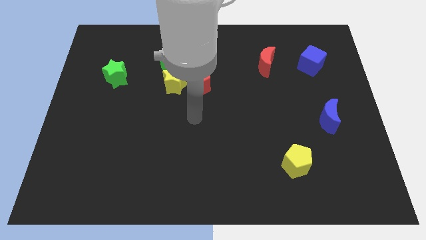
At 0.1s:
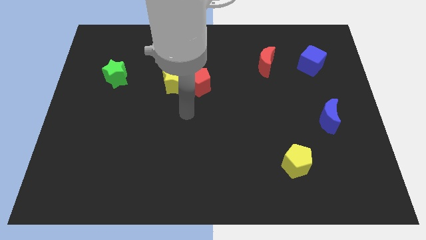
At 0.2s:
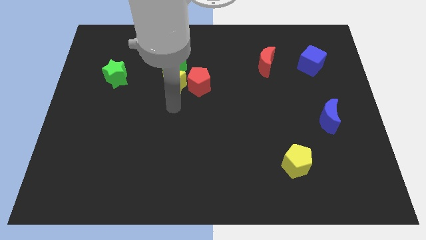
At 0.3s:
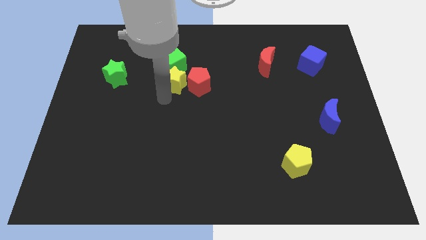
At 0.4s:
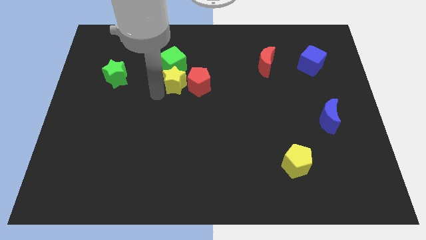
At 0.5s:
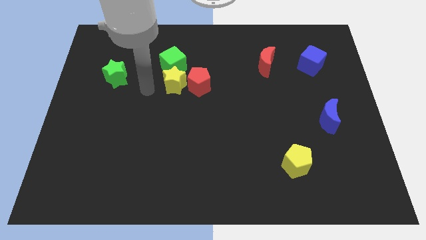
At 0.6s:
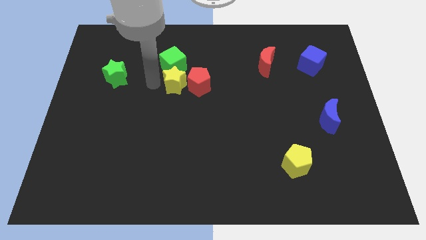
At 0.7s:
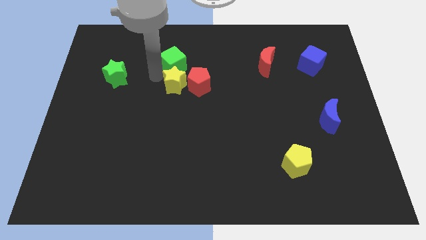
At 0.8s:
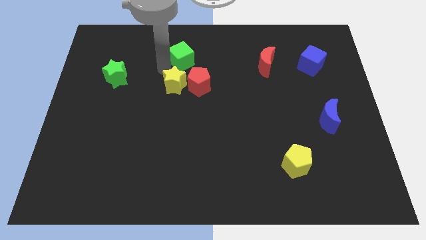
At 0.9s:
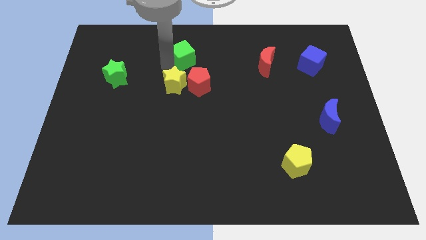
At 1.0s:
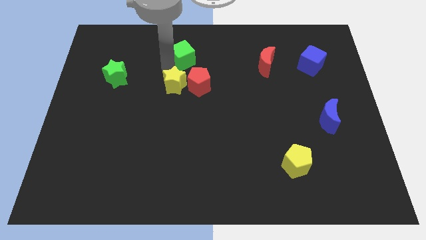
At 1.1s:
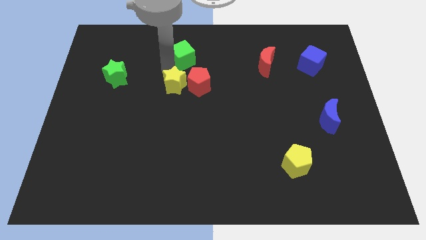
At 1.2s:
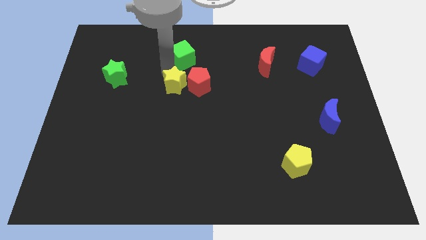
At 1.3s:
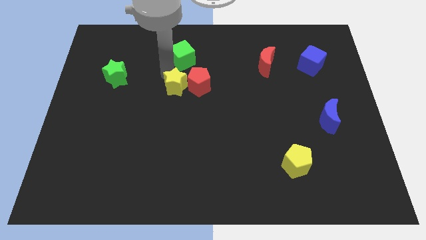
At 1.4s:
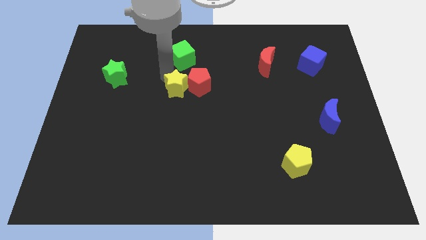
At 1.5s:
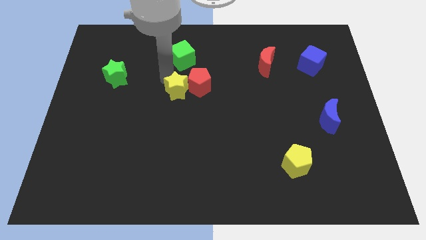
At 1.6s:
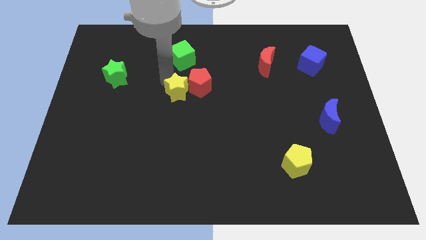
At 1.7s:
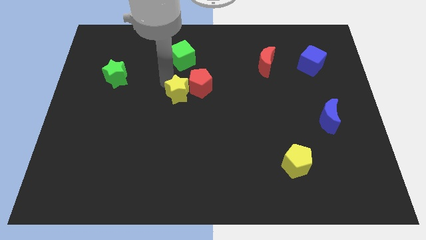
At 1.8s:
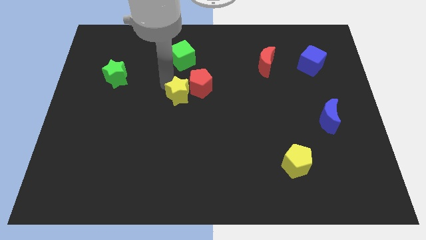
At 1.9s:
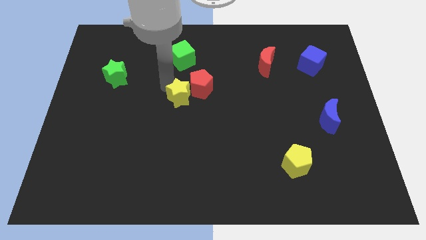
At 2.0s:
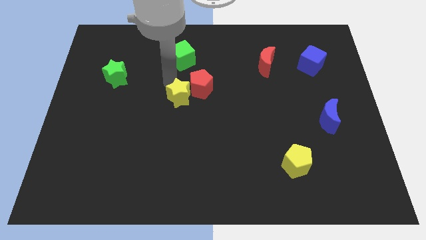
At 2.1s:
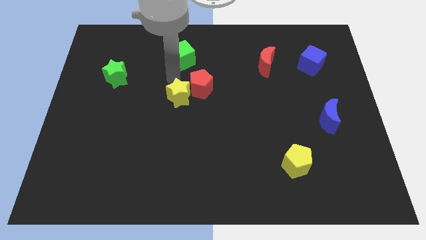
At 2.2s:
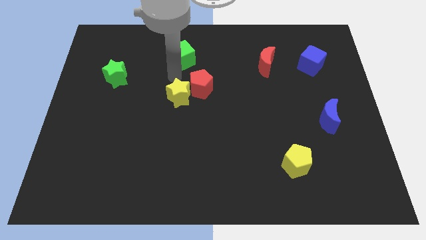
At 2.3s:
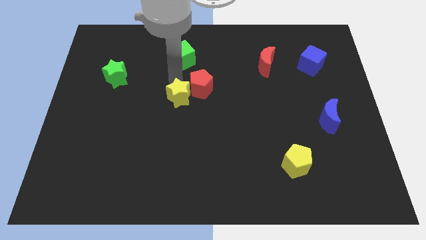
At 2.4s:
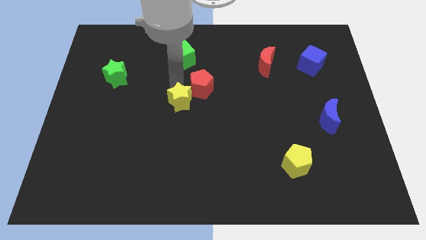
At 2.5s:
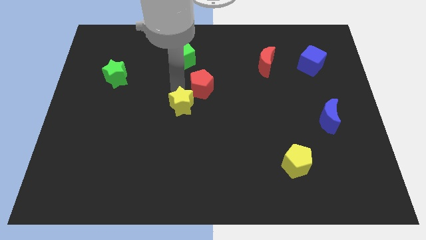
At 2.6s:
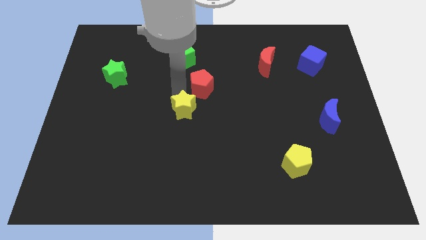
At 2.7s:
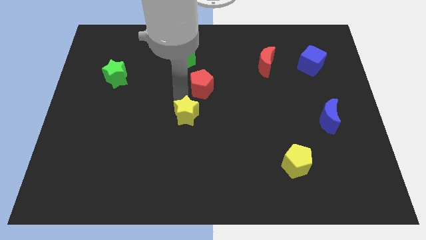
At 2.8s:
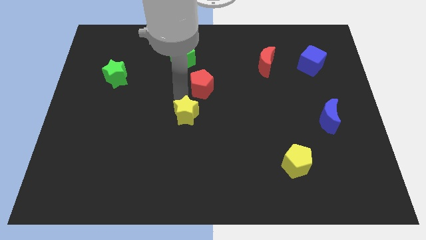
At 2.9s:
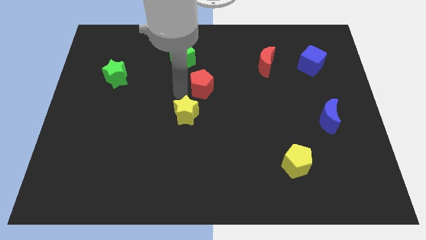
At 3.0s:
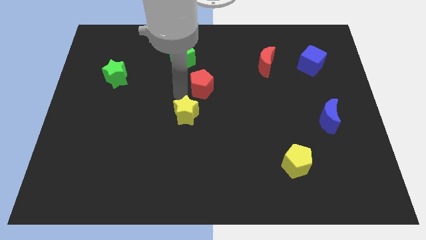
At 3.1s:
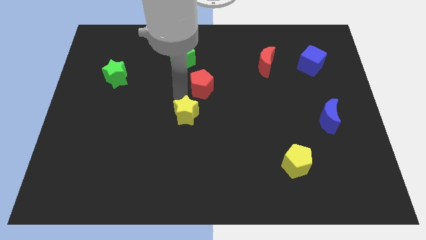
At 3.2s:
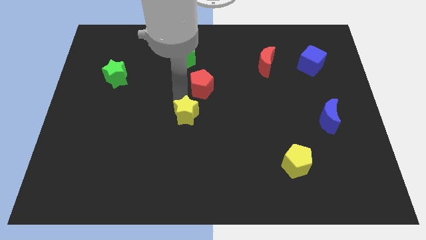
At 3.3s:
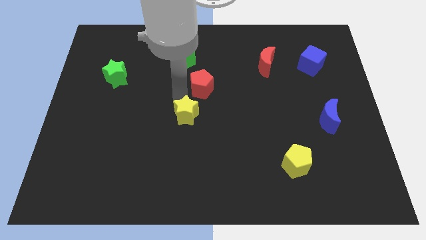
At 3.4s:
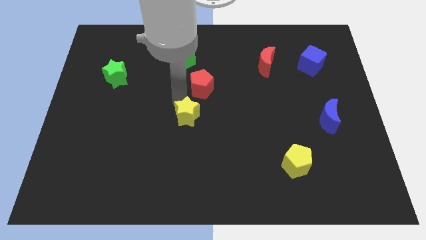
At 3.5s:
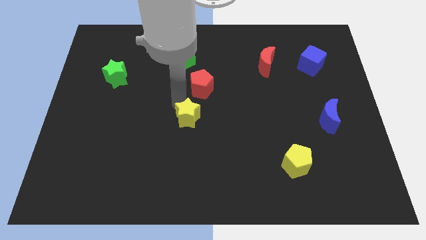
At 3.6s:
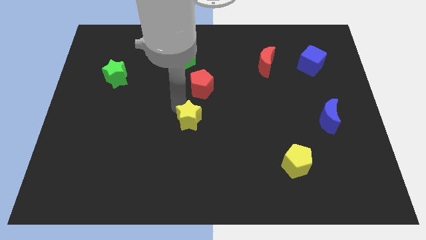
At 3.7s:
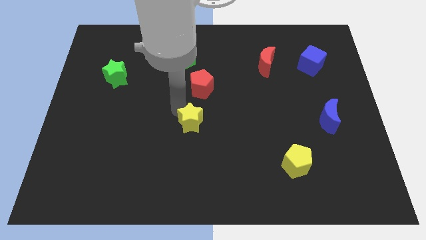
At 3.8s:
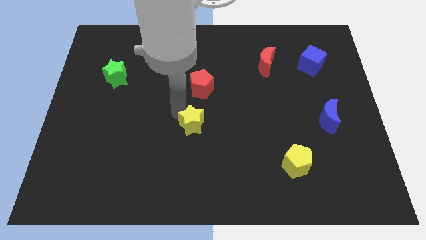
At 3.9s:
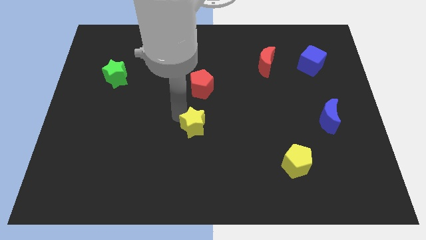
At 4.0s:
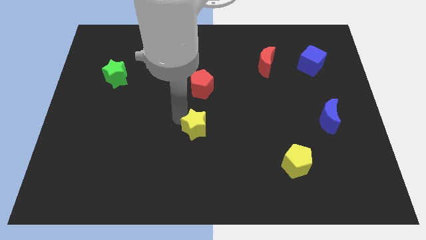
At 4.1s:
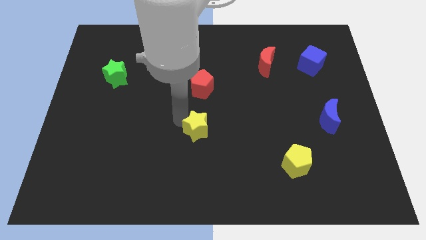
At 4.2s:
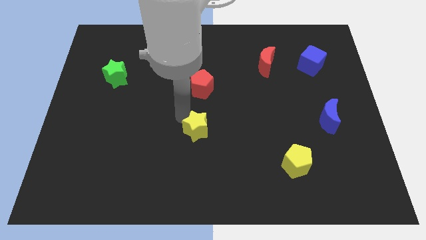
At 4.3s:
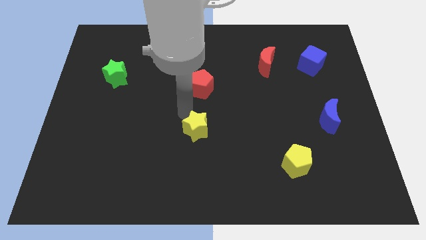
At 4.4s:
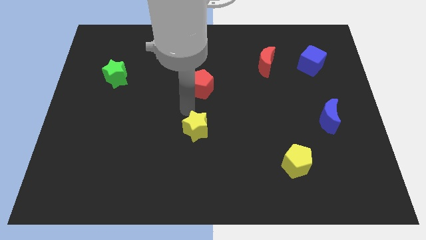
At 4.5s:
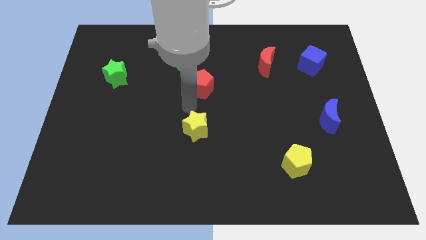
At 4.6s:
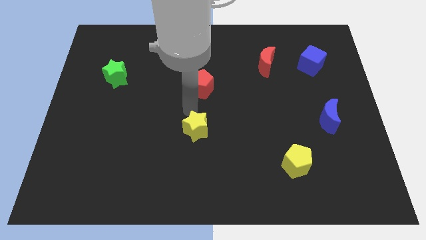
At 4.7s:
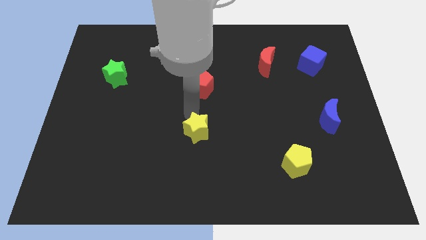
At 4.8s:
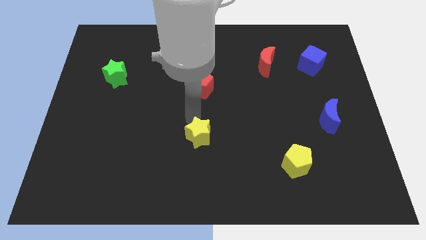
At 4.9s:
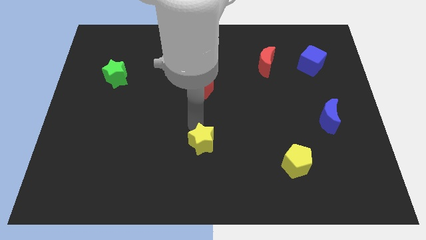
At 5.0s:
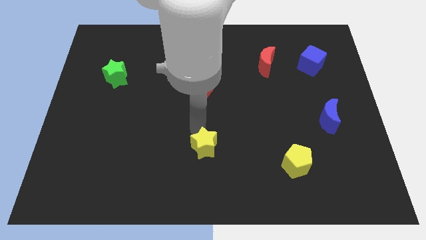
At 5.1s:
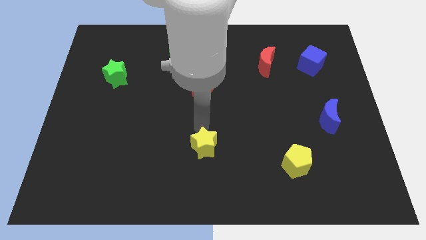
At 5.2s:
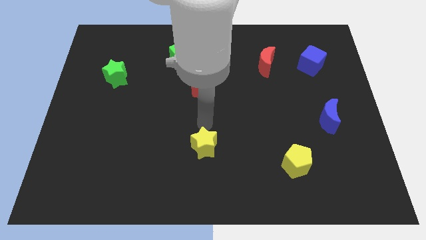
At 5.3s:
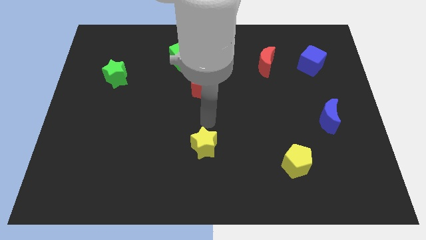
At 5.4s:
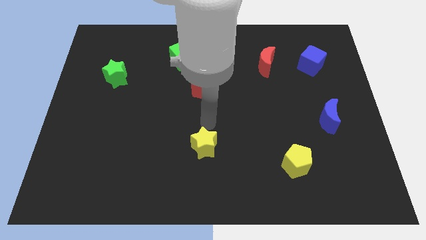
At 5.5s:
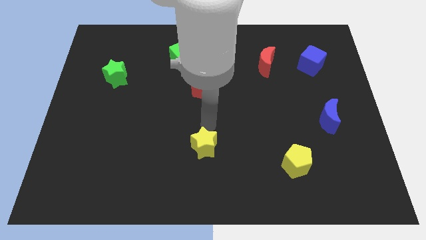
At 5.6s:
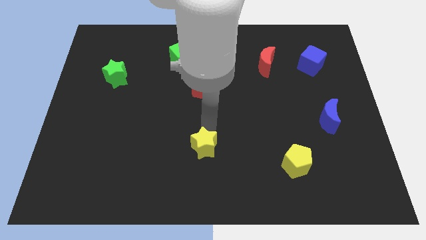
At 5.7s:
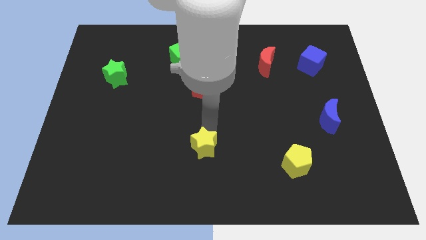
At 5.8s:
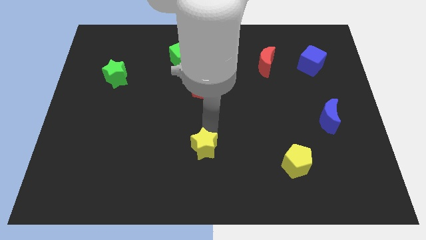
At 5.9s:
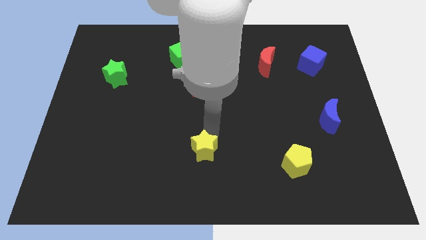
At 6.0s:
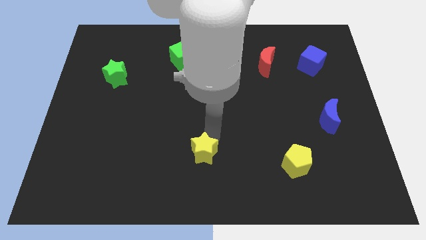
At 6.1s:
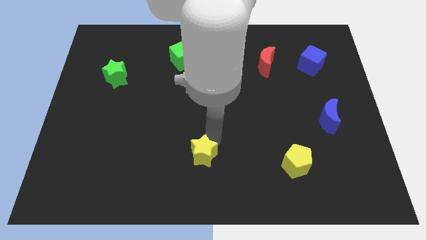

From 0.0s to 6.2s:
put the yellow star to the bottom
